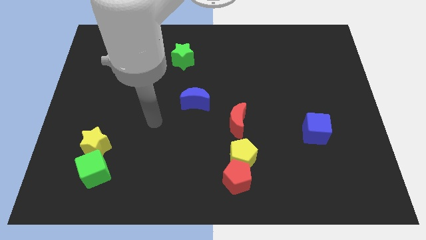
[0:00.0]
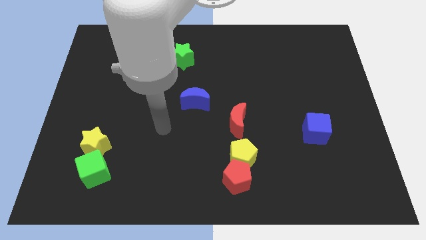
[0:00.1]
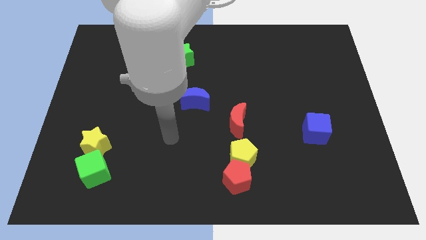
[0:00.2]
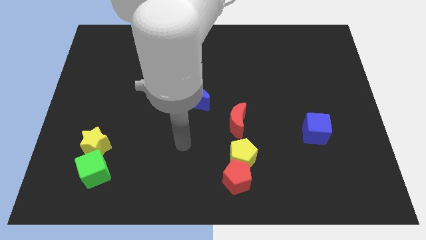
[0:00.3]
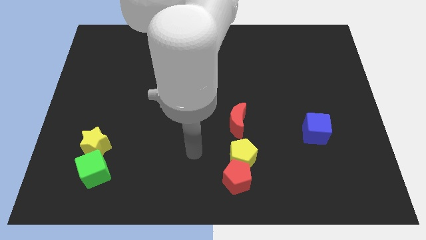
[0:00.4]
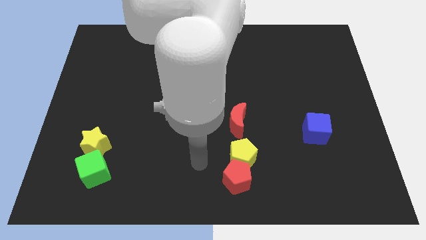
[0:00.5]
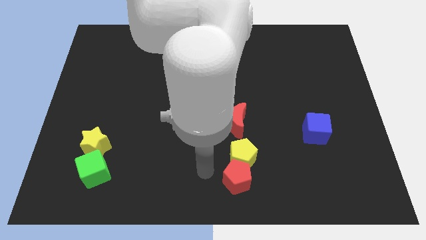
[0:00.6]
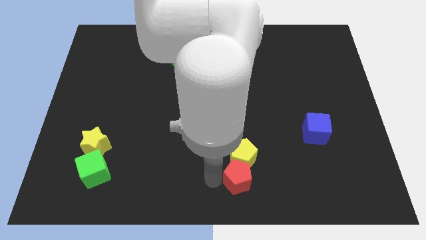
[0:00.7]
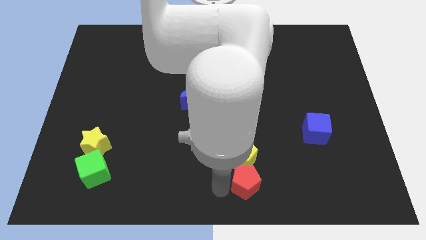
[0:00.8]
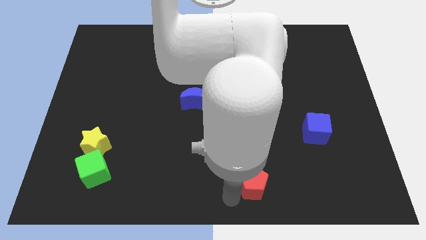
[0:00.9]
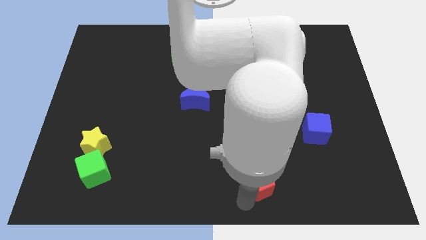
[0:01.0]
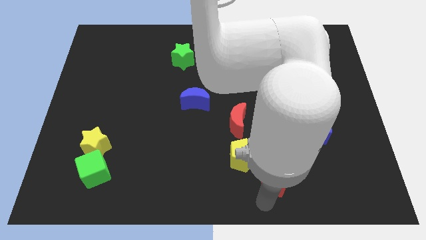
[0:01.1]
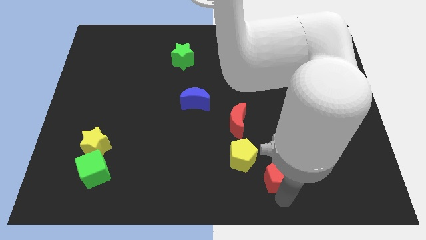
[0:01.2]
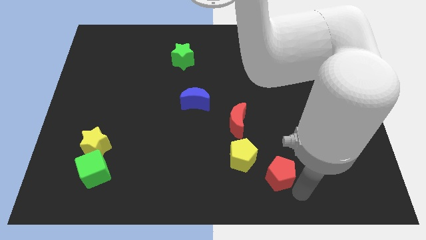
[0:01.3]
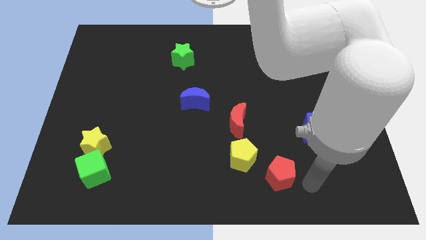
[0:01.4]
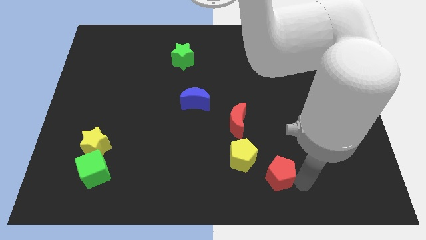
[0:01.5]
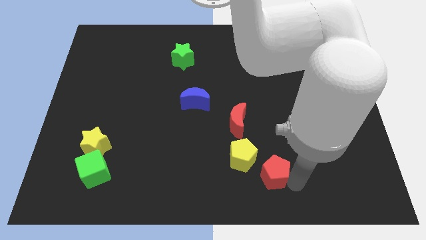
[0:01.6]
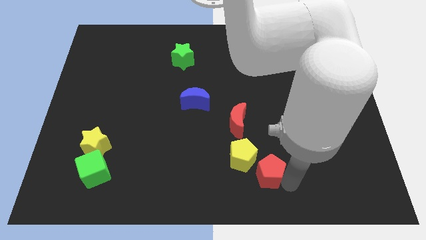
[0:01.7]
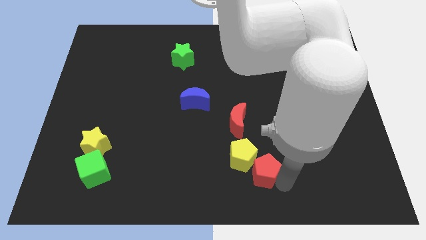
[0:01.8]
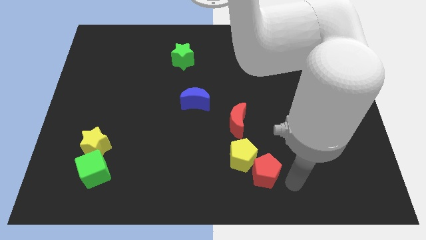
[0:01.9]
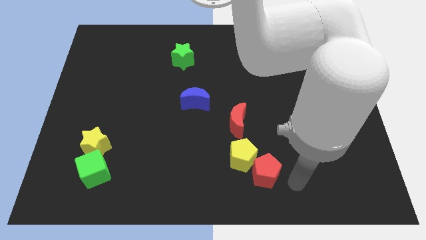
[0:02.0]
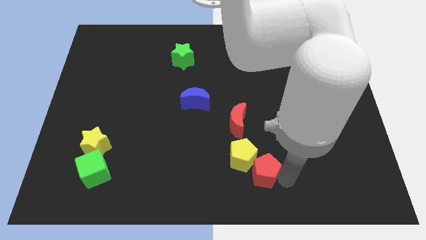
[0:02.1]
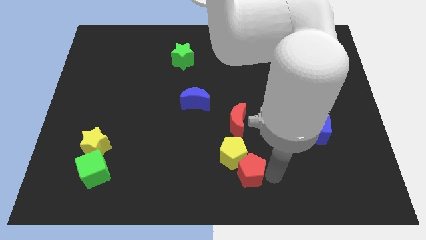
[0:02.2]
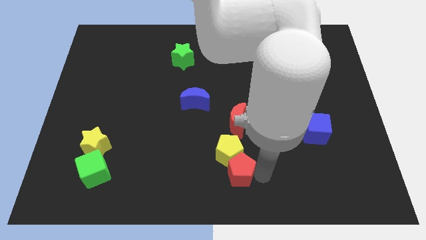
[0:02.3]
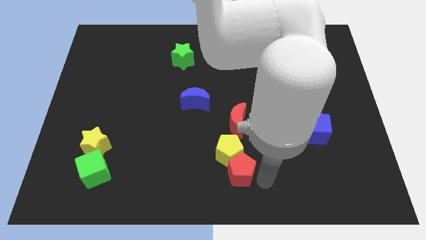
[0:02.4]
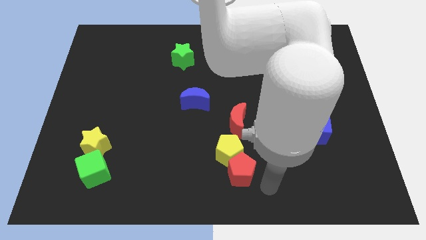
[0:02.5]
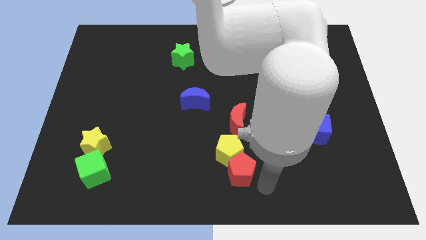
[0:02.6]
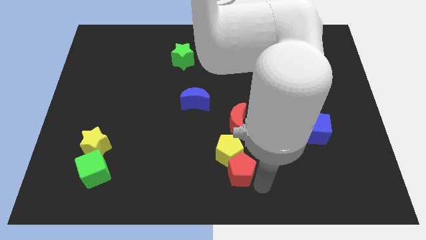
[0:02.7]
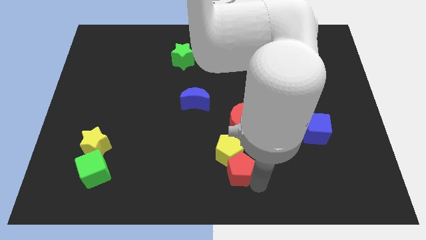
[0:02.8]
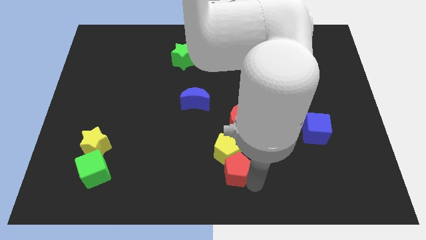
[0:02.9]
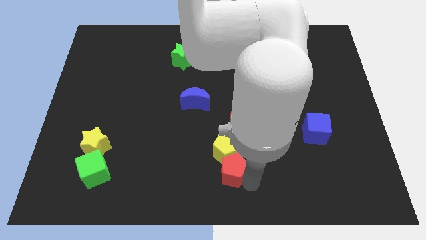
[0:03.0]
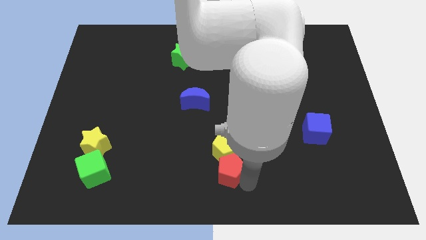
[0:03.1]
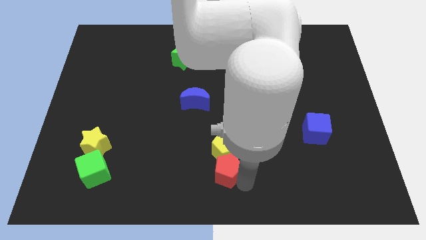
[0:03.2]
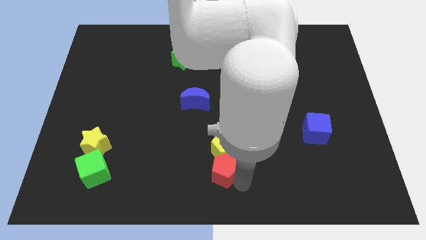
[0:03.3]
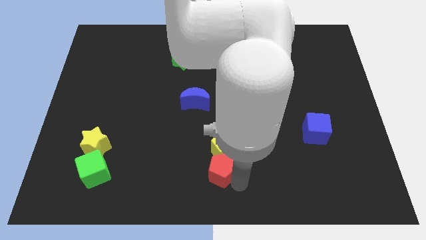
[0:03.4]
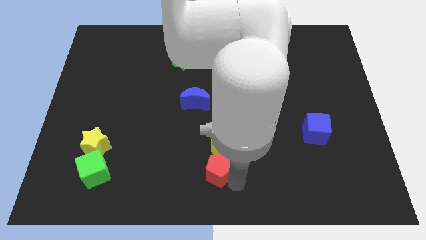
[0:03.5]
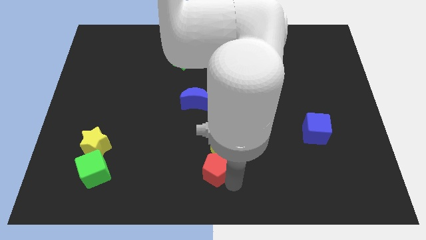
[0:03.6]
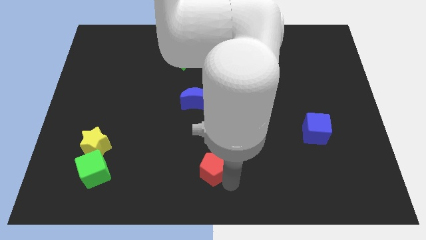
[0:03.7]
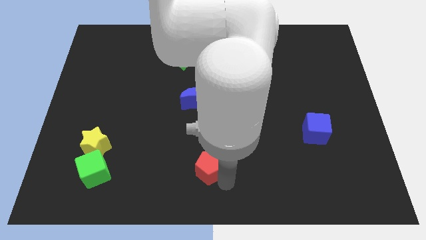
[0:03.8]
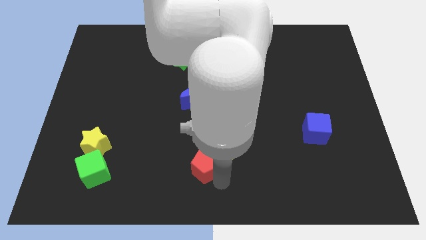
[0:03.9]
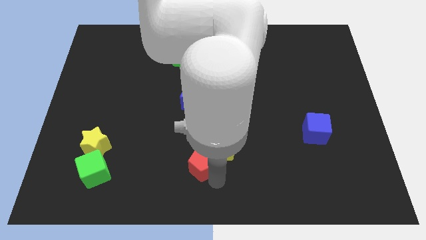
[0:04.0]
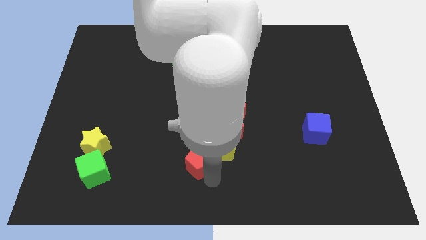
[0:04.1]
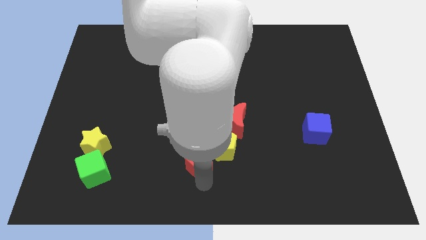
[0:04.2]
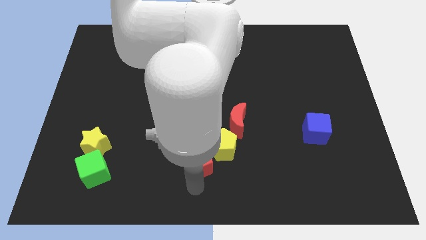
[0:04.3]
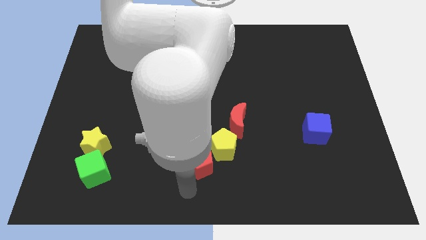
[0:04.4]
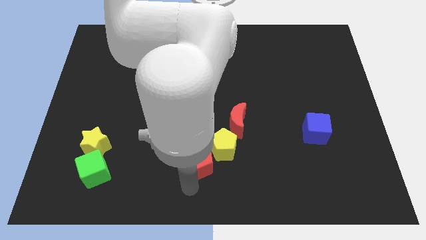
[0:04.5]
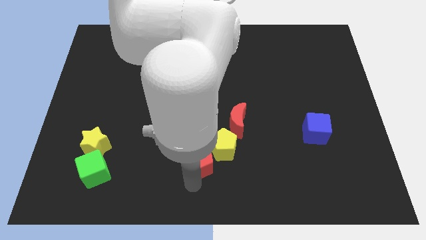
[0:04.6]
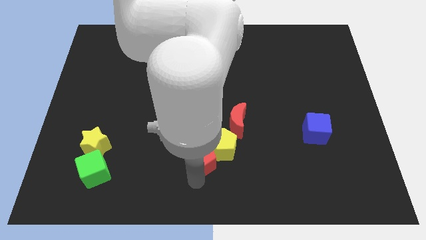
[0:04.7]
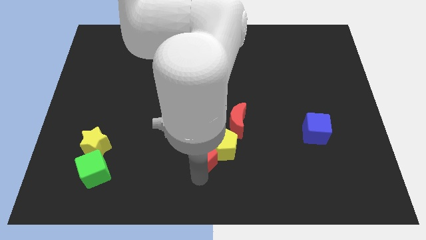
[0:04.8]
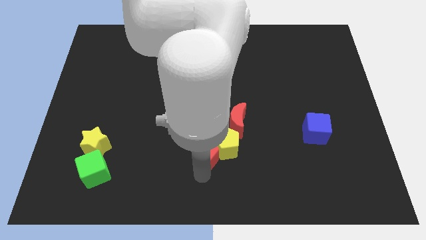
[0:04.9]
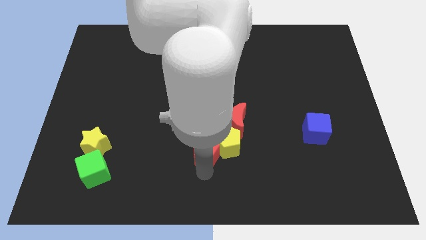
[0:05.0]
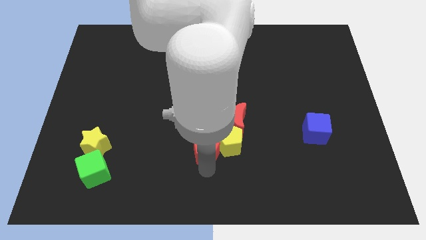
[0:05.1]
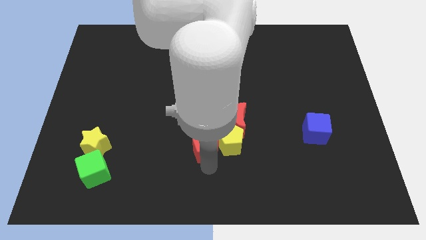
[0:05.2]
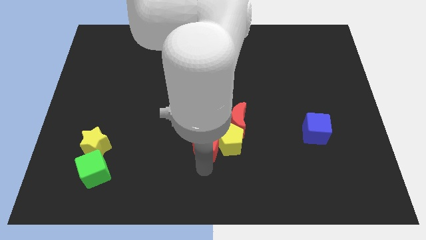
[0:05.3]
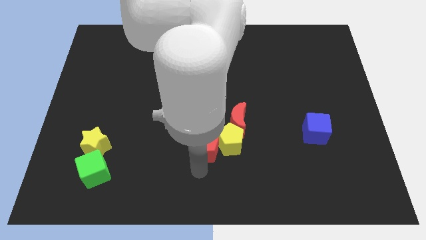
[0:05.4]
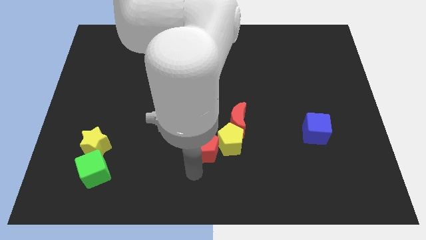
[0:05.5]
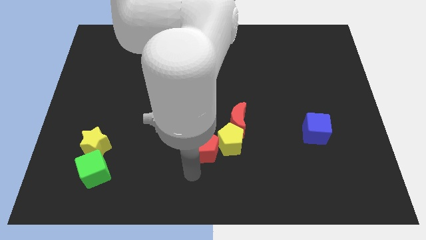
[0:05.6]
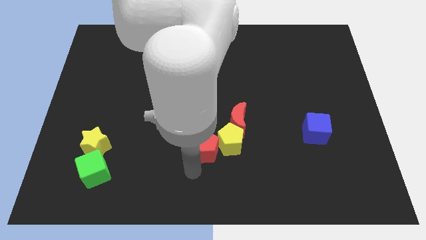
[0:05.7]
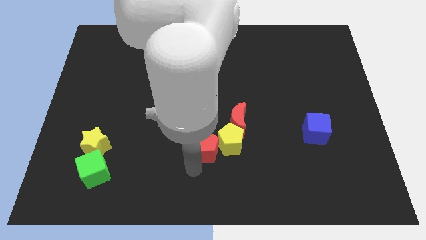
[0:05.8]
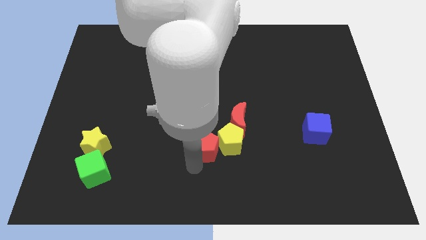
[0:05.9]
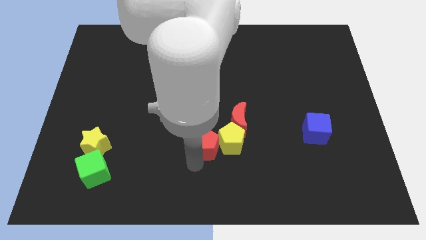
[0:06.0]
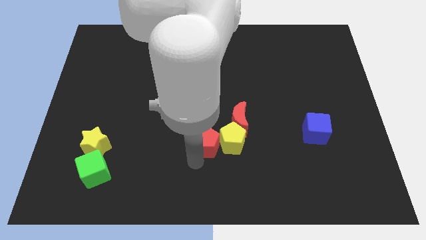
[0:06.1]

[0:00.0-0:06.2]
move the red pentagon to the center
